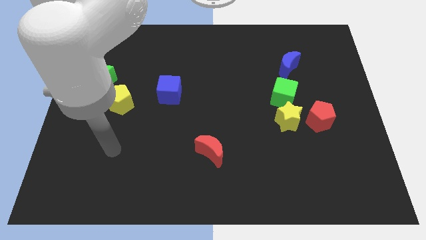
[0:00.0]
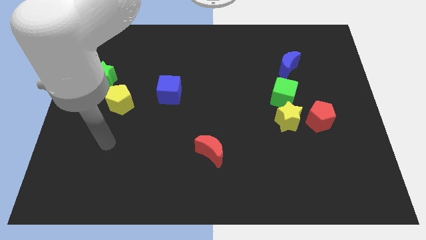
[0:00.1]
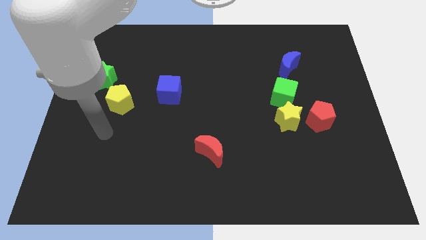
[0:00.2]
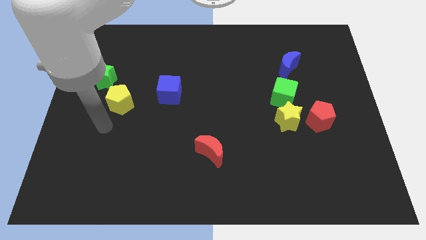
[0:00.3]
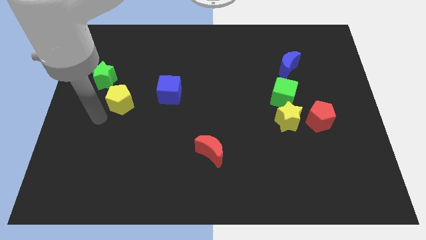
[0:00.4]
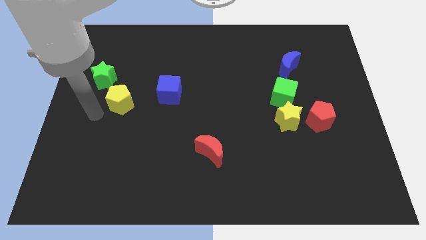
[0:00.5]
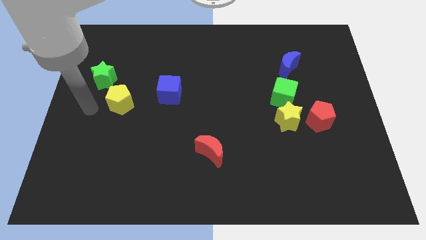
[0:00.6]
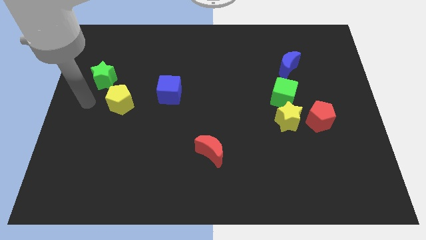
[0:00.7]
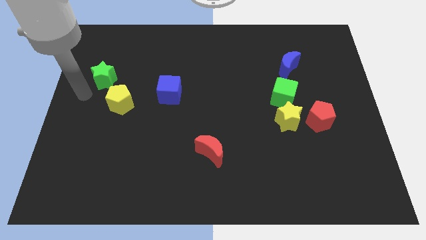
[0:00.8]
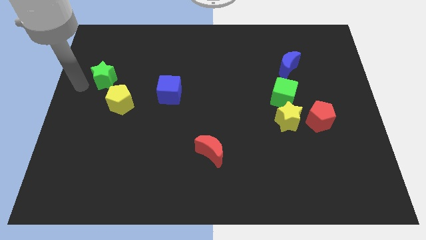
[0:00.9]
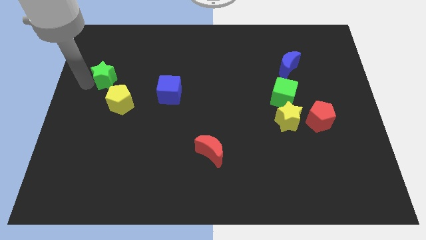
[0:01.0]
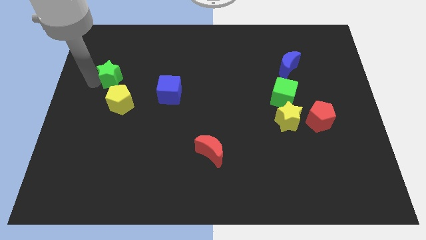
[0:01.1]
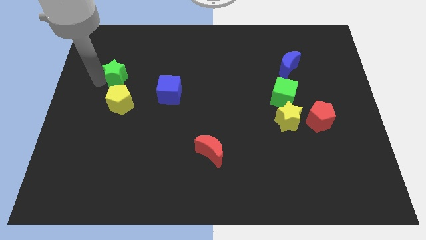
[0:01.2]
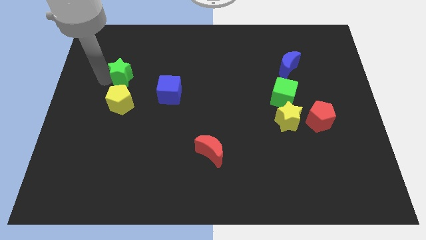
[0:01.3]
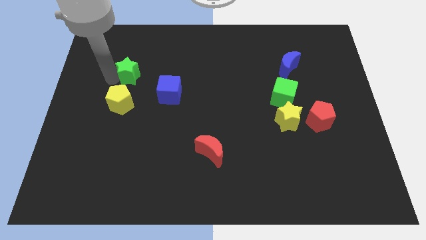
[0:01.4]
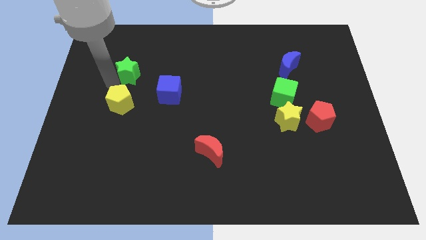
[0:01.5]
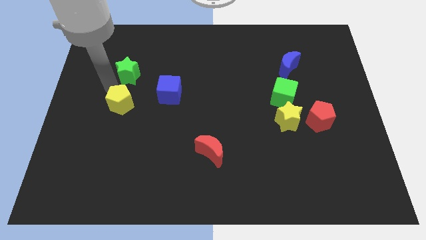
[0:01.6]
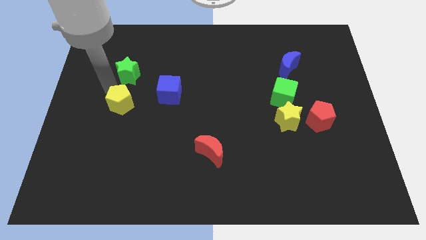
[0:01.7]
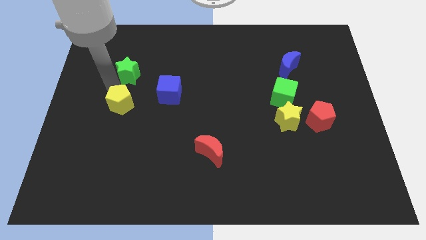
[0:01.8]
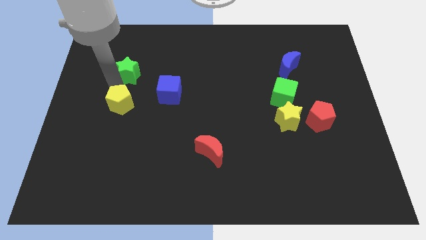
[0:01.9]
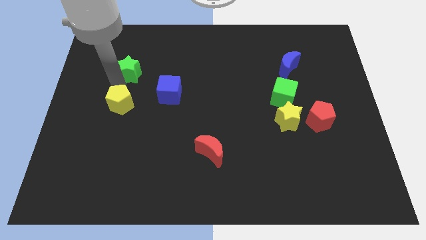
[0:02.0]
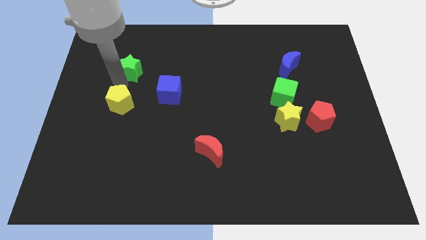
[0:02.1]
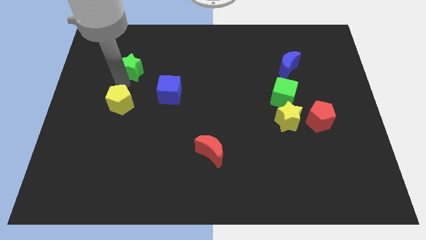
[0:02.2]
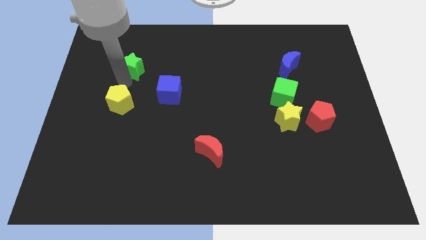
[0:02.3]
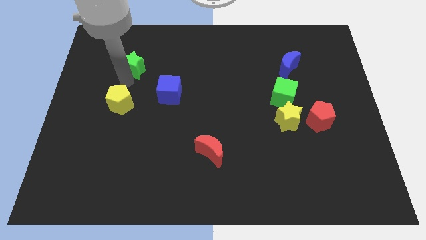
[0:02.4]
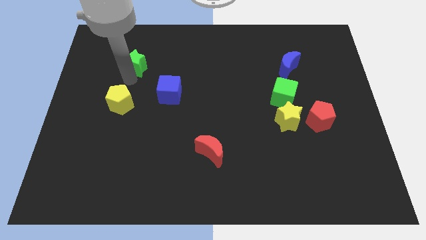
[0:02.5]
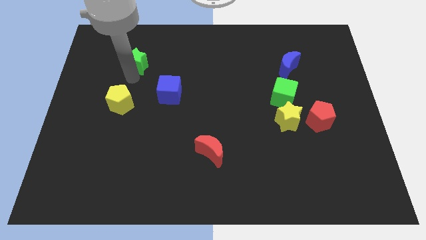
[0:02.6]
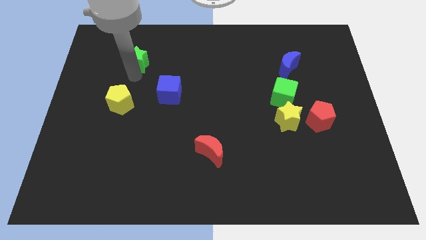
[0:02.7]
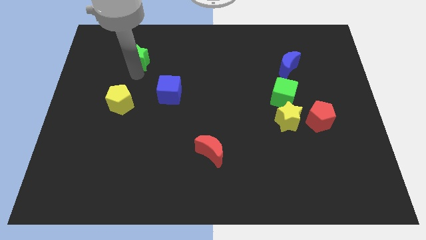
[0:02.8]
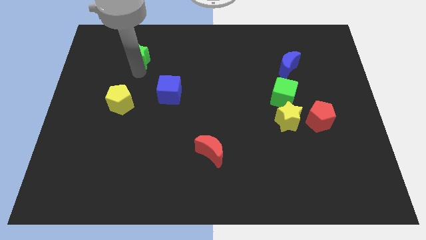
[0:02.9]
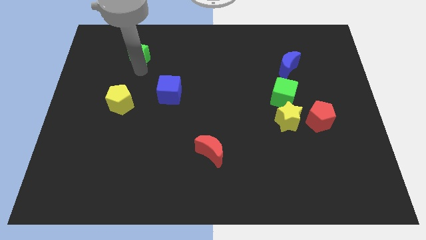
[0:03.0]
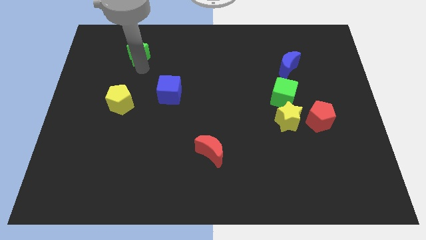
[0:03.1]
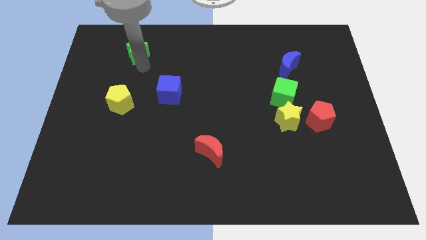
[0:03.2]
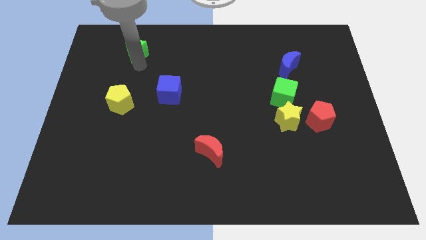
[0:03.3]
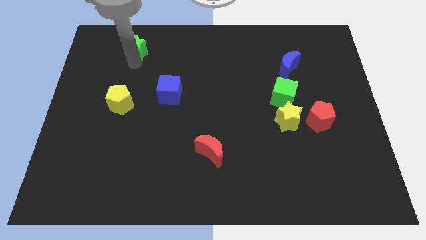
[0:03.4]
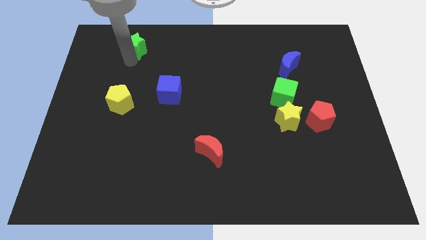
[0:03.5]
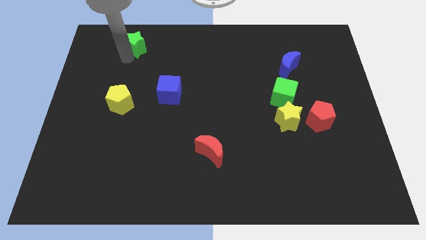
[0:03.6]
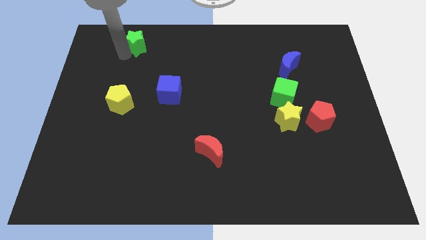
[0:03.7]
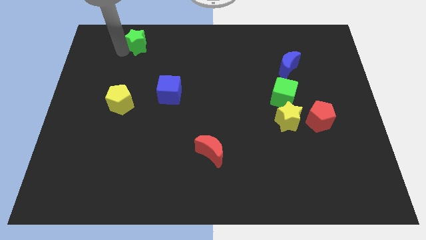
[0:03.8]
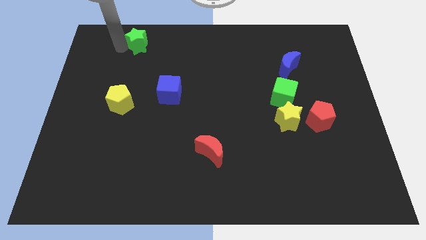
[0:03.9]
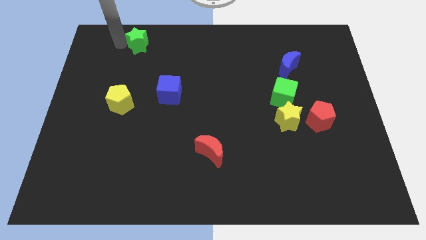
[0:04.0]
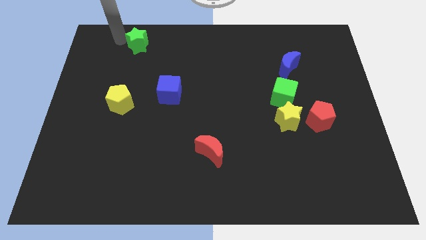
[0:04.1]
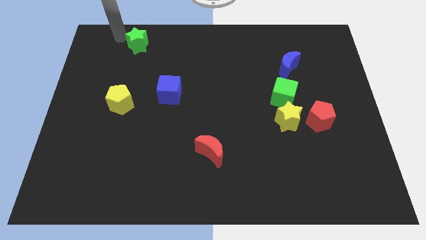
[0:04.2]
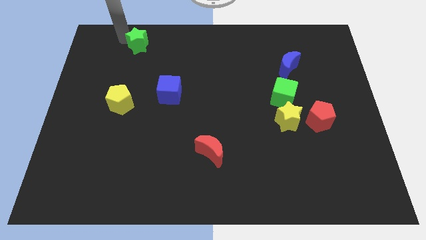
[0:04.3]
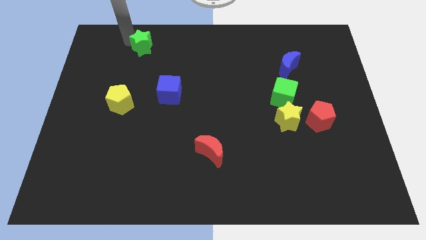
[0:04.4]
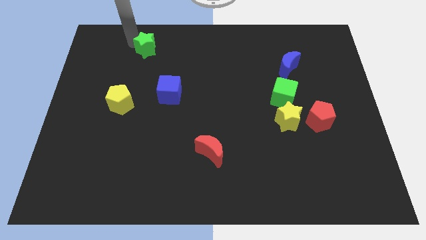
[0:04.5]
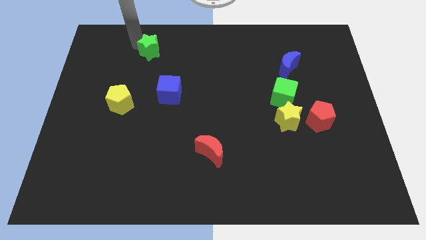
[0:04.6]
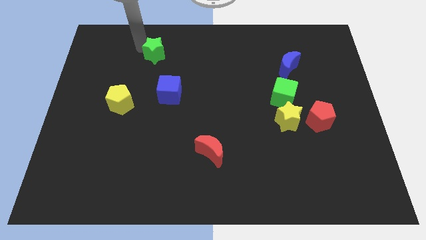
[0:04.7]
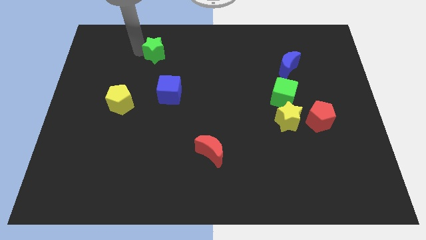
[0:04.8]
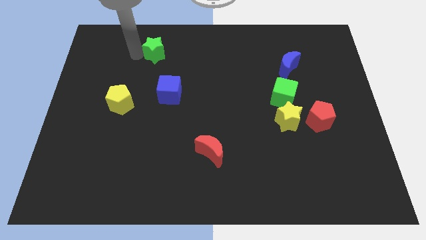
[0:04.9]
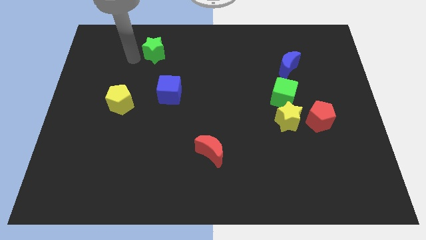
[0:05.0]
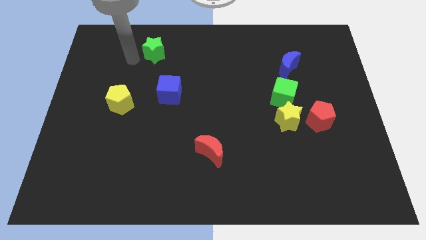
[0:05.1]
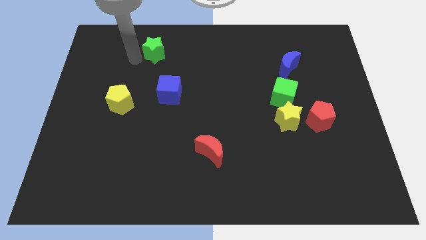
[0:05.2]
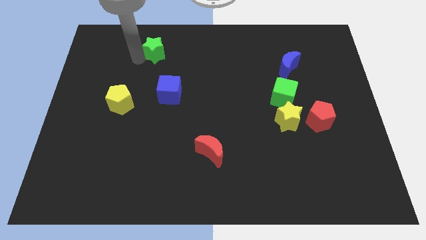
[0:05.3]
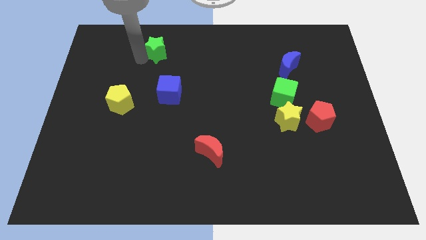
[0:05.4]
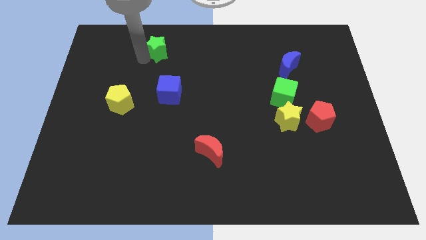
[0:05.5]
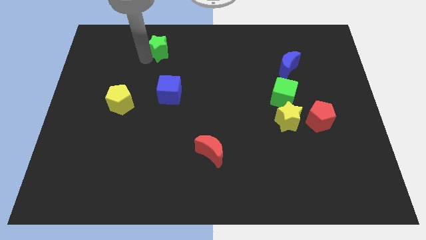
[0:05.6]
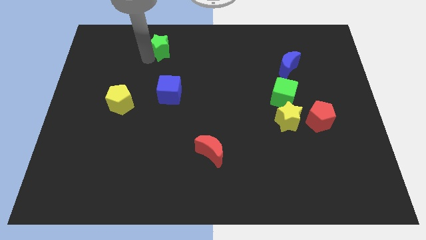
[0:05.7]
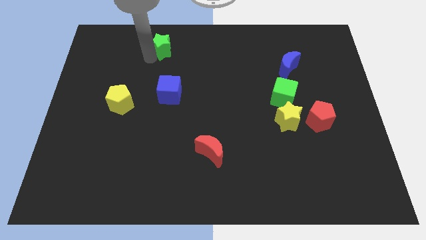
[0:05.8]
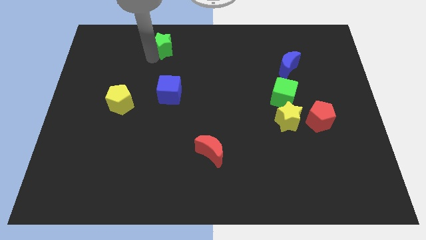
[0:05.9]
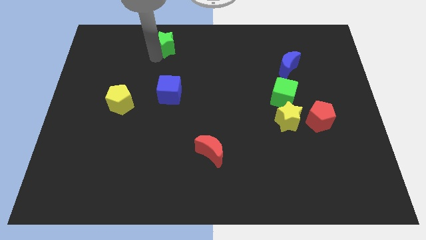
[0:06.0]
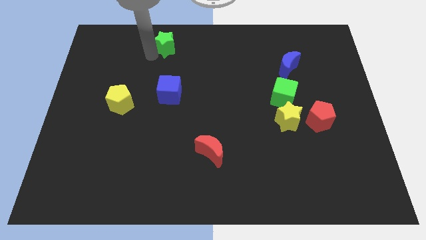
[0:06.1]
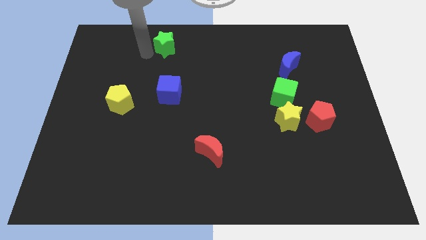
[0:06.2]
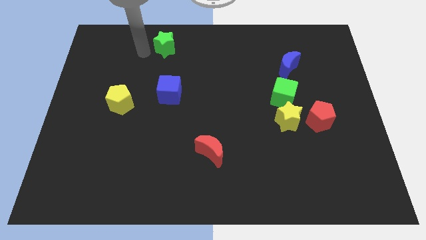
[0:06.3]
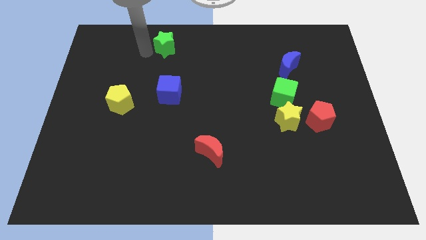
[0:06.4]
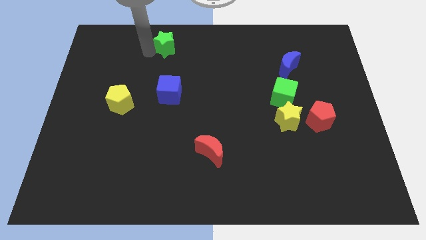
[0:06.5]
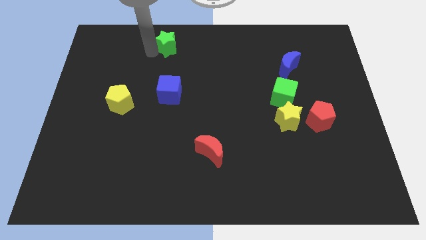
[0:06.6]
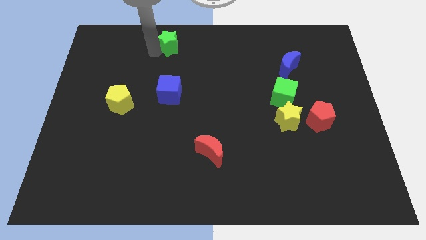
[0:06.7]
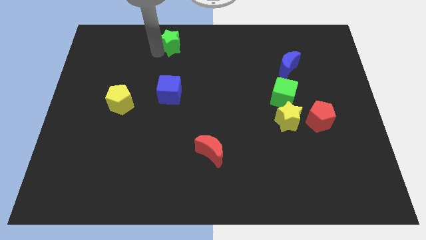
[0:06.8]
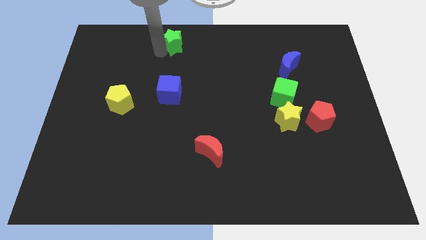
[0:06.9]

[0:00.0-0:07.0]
push the green star to the top
